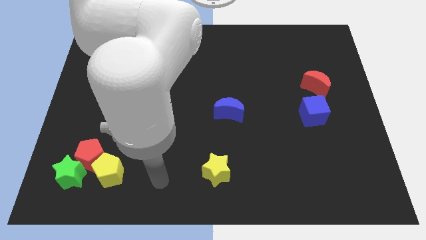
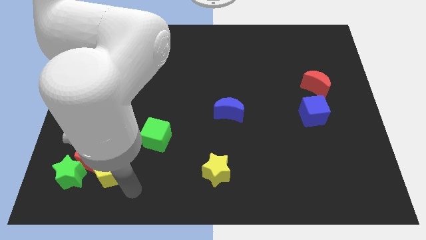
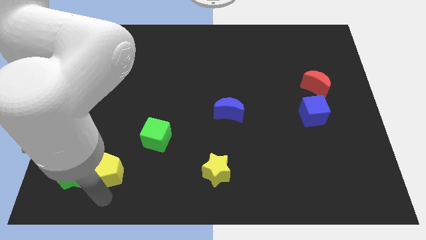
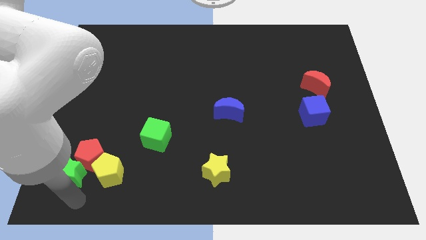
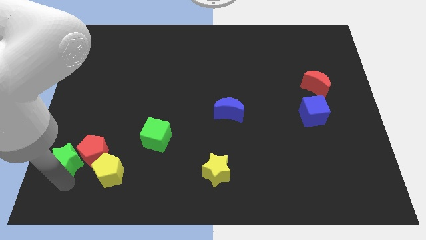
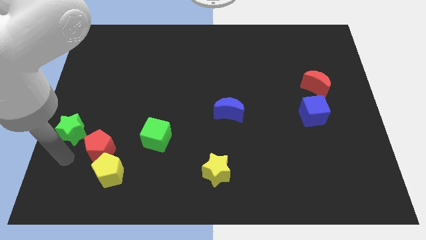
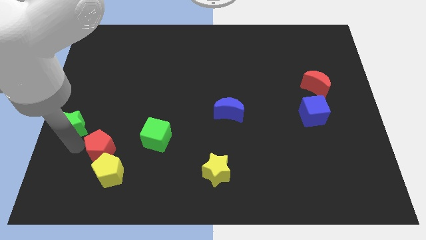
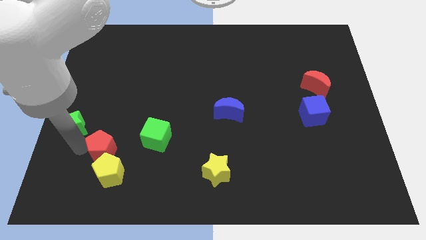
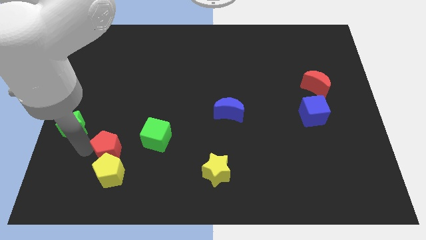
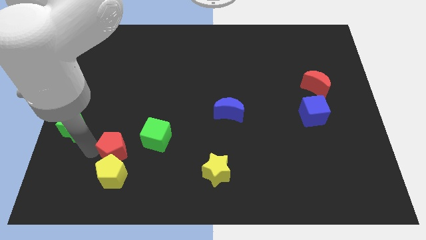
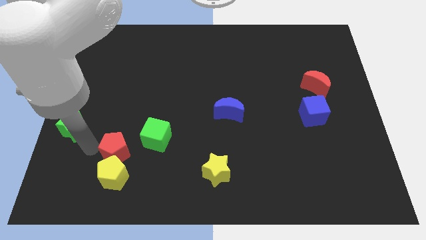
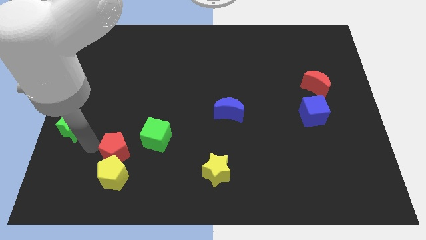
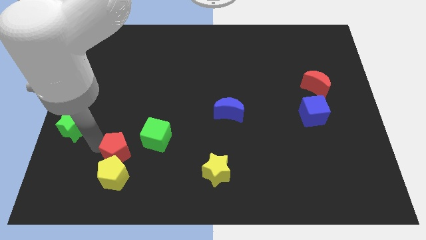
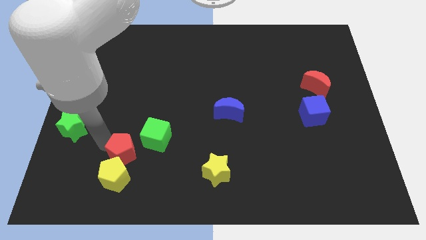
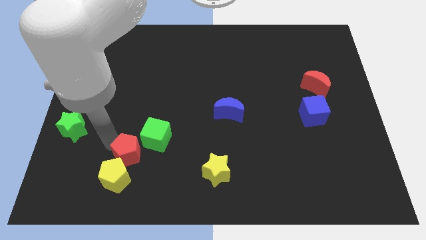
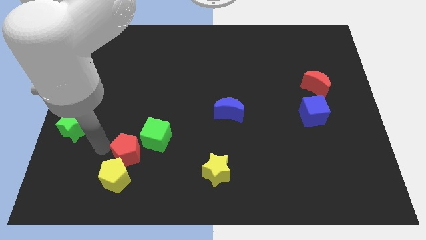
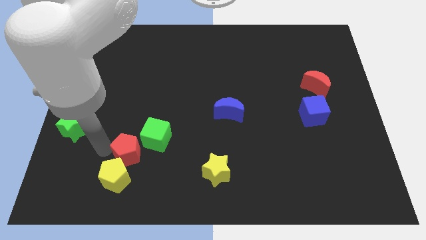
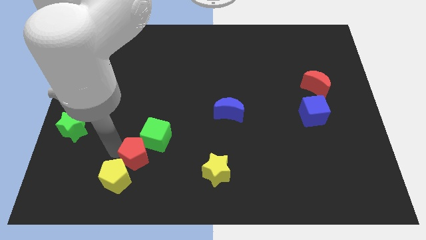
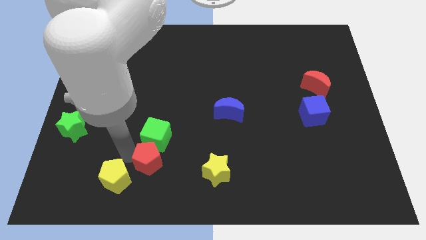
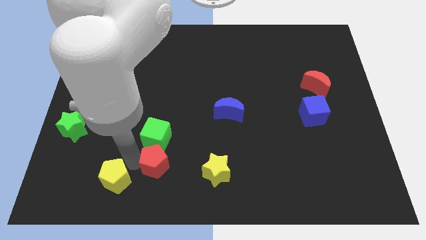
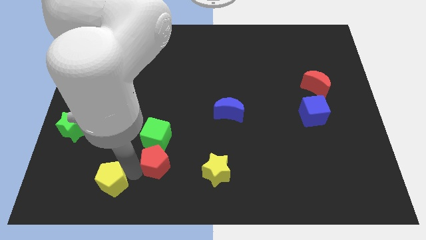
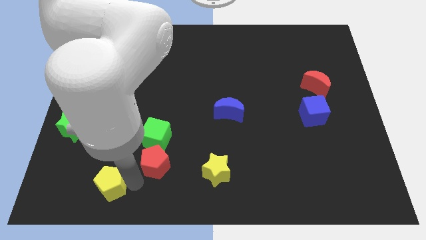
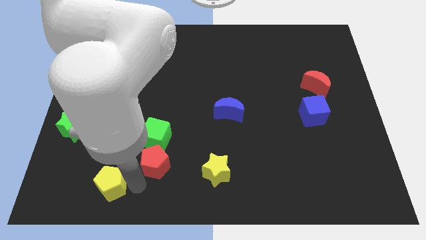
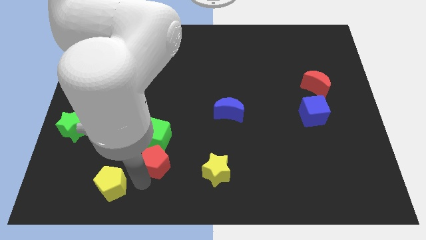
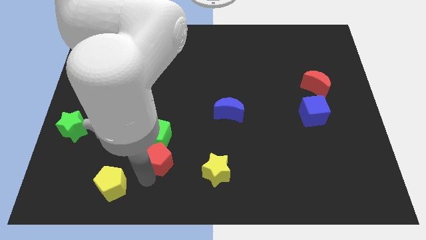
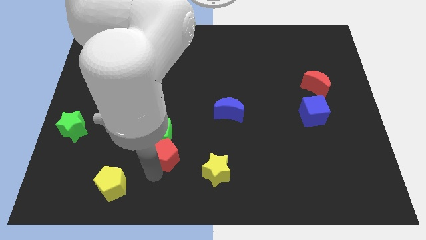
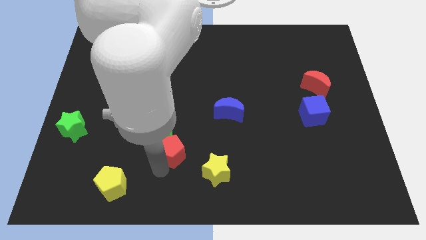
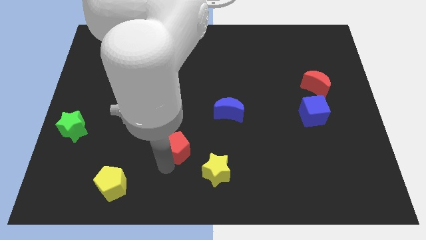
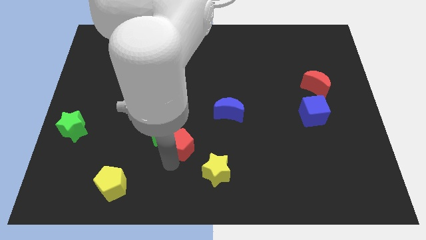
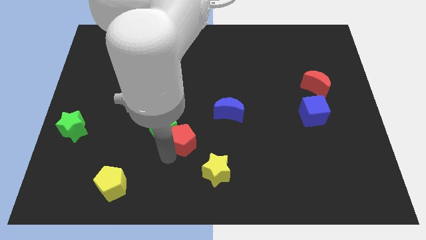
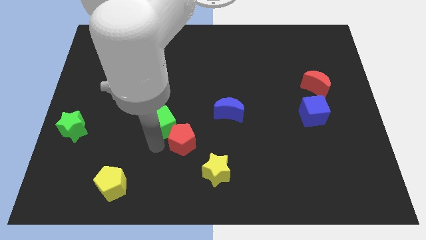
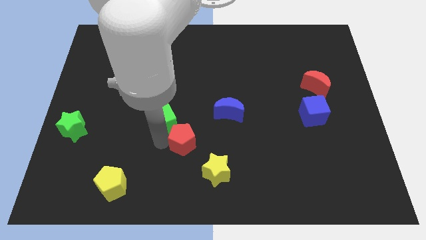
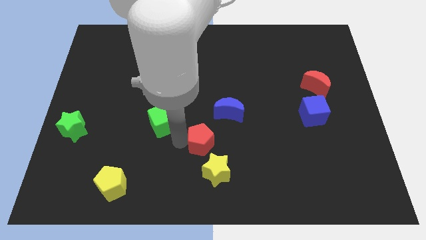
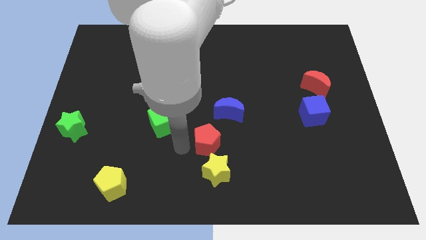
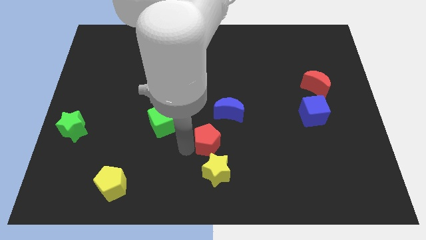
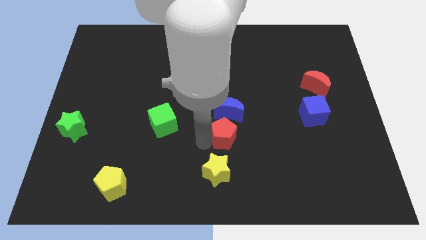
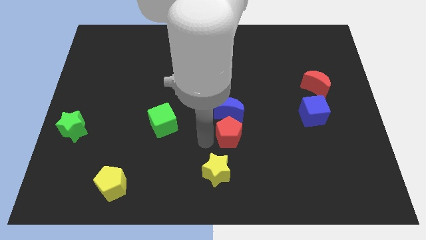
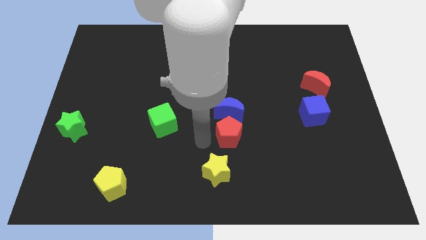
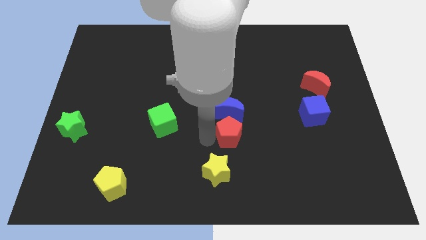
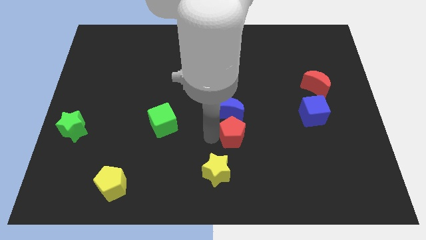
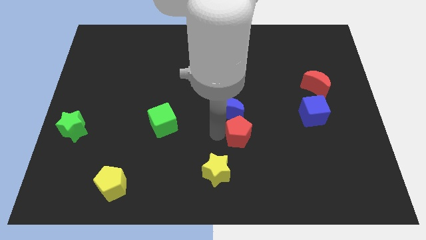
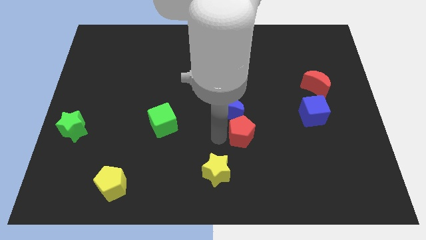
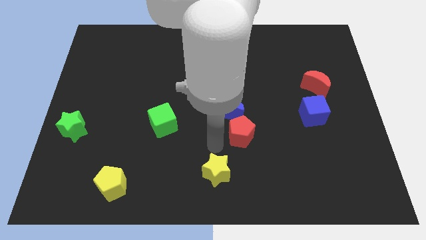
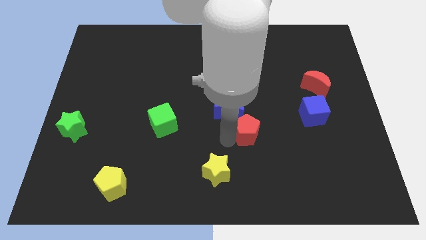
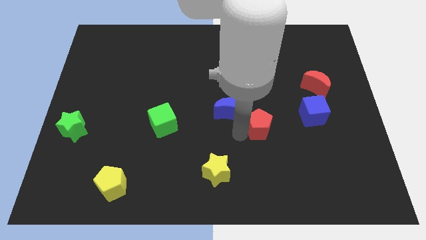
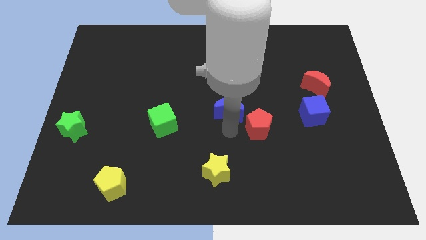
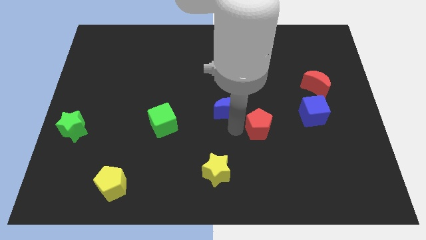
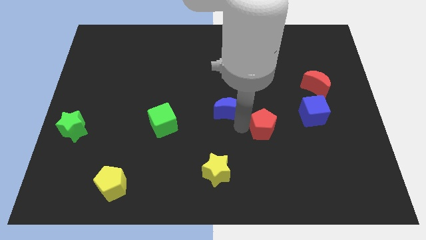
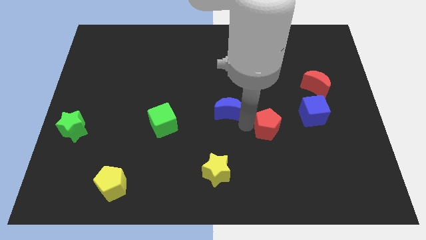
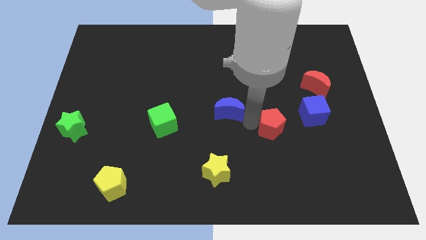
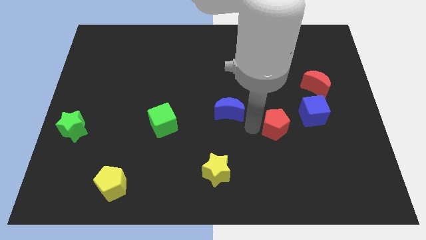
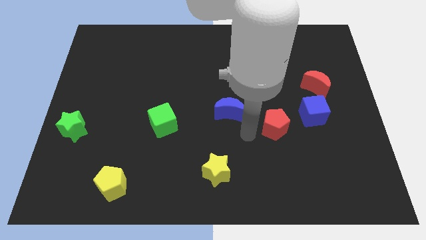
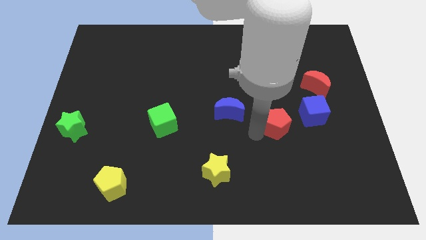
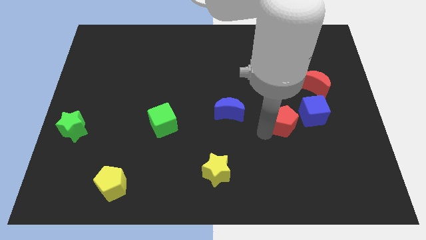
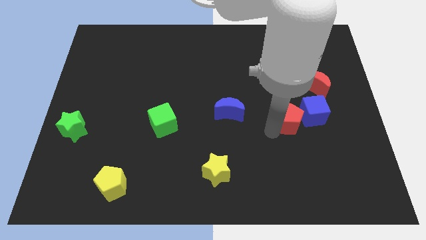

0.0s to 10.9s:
put the red pentagon close to the blue cube

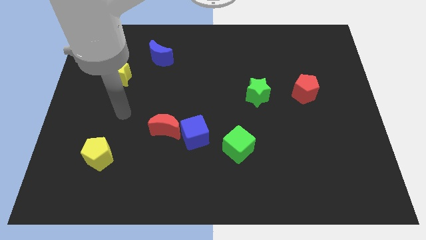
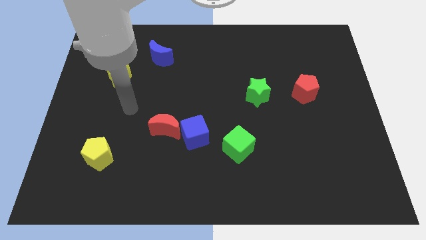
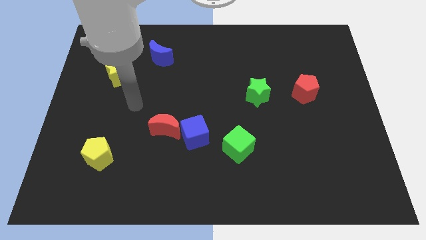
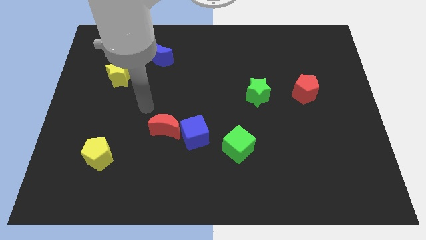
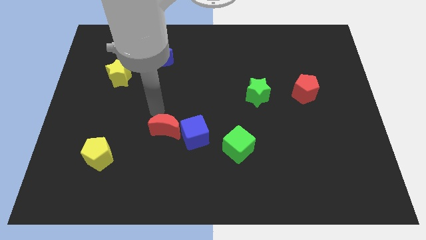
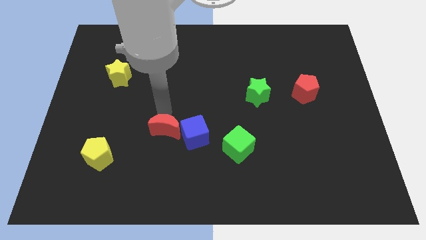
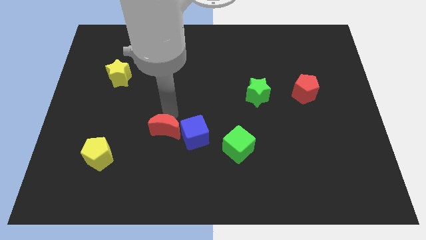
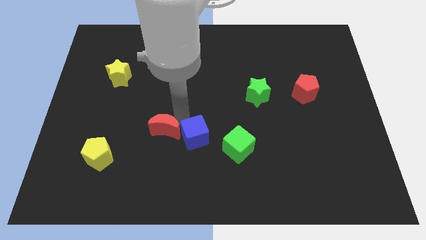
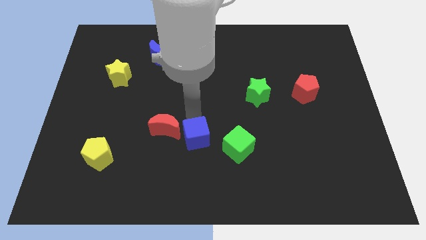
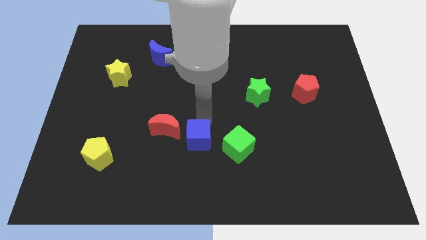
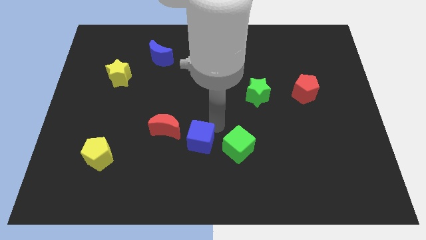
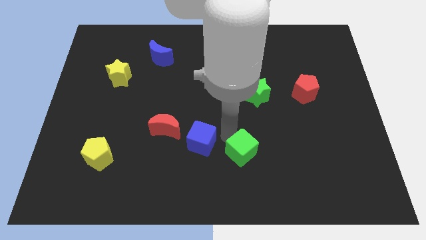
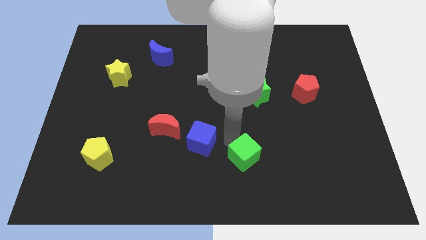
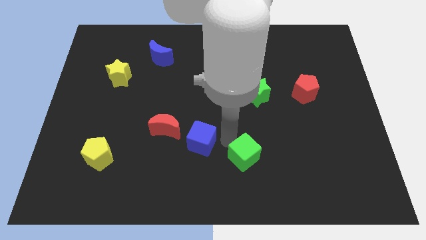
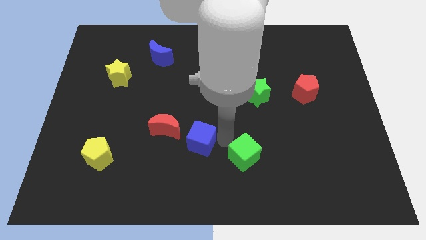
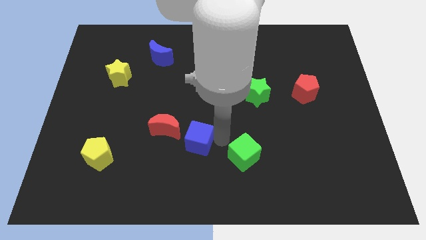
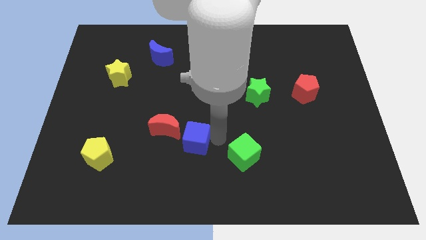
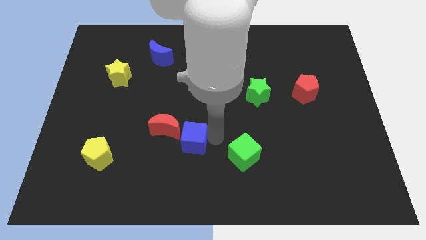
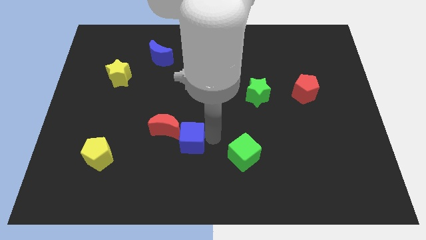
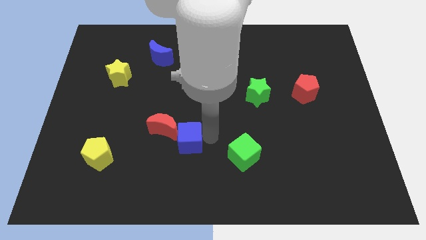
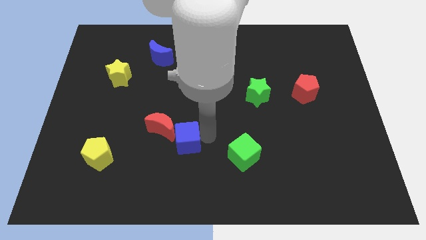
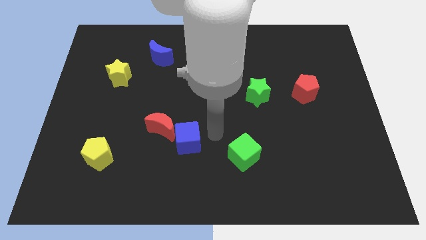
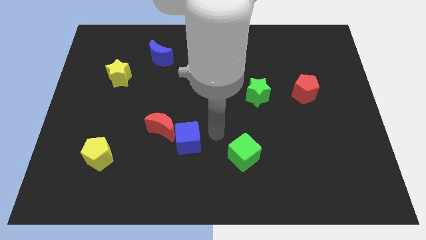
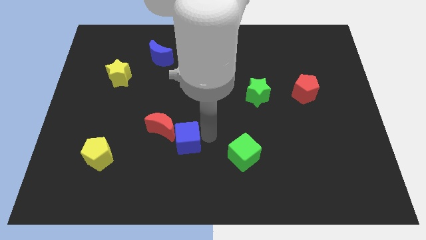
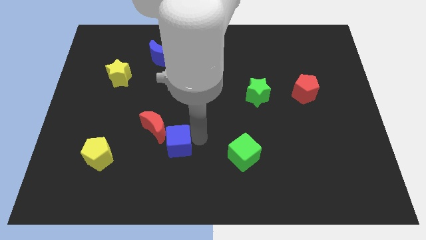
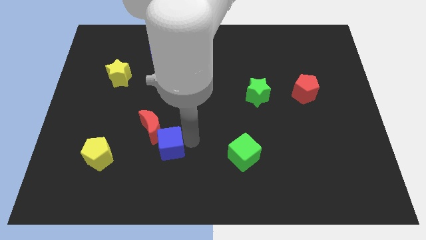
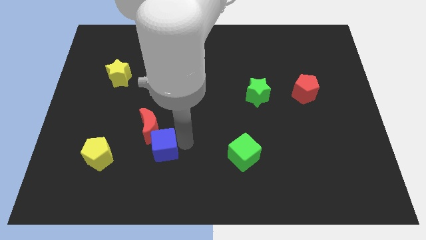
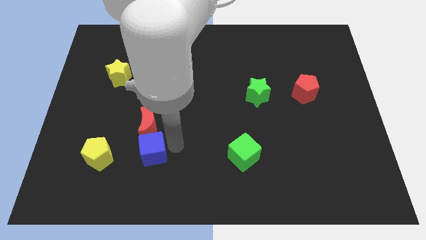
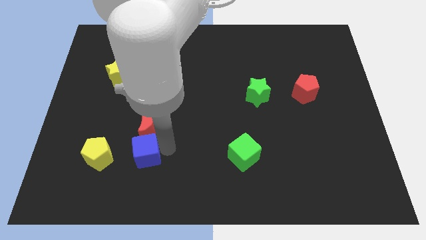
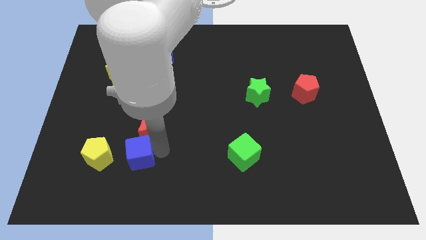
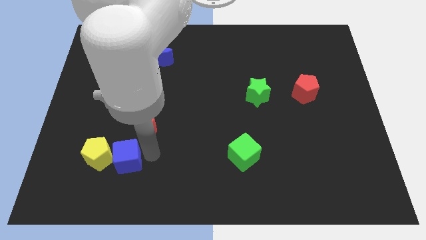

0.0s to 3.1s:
put the blue cube to the yellow pentagon
